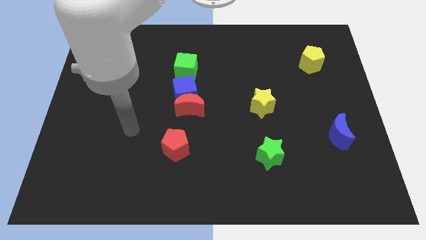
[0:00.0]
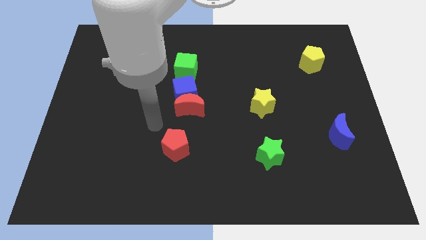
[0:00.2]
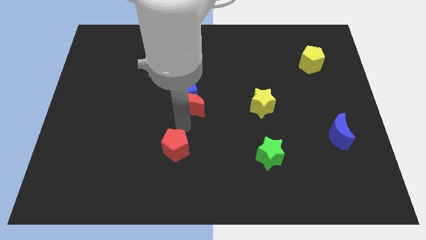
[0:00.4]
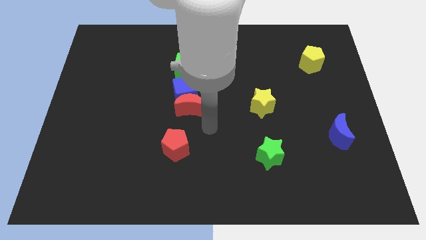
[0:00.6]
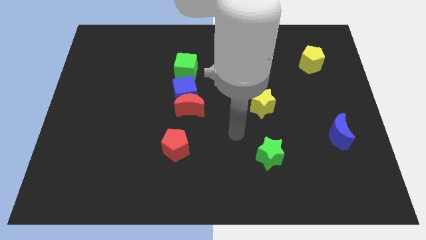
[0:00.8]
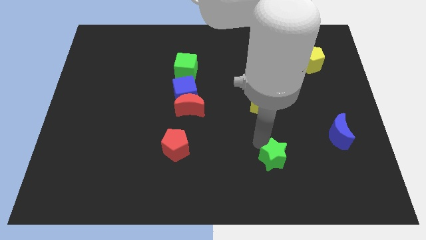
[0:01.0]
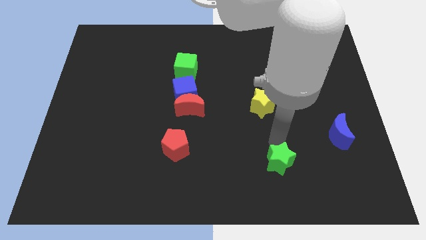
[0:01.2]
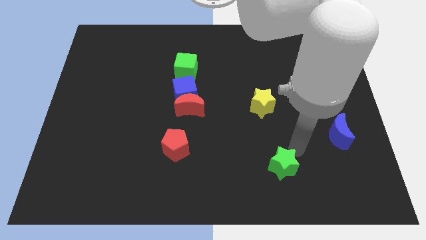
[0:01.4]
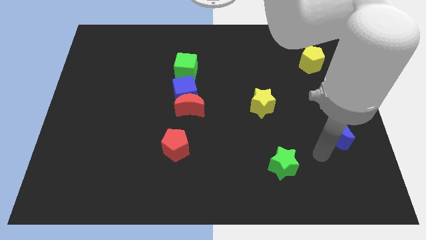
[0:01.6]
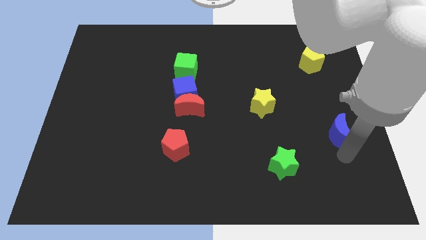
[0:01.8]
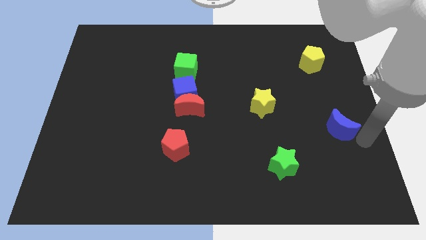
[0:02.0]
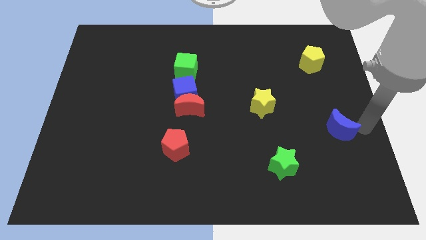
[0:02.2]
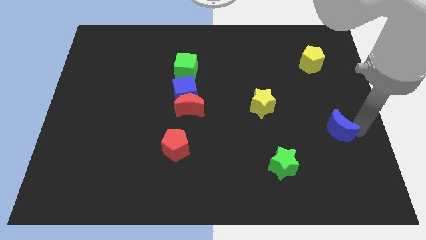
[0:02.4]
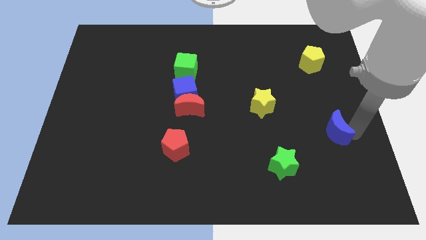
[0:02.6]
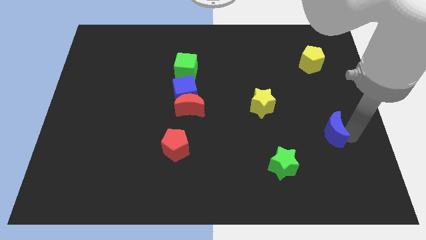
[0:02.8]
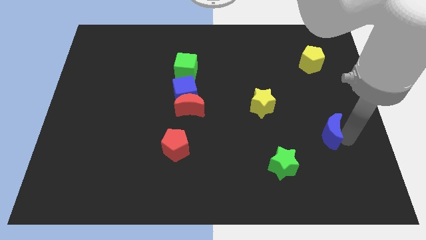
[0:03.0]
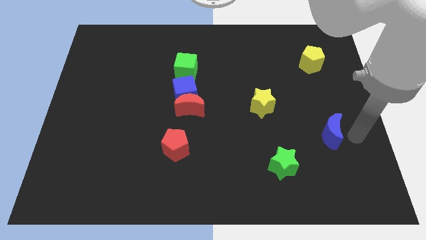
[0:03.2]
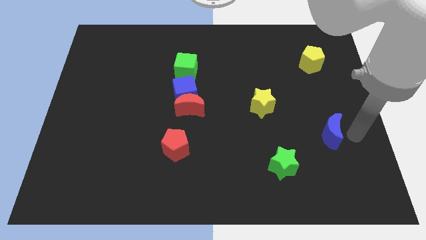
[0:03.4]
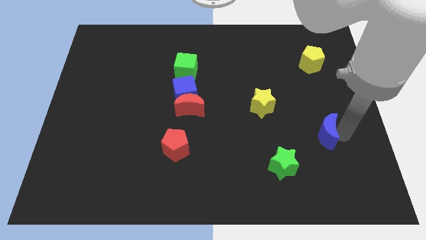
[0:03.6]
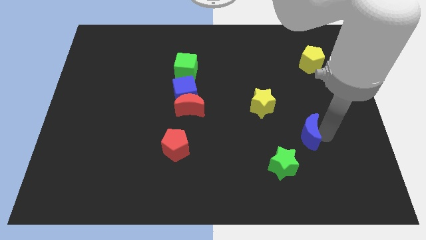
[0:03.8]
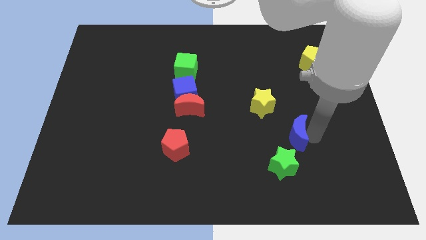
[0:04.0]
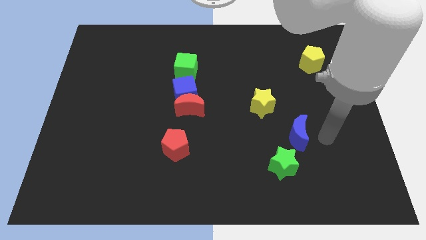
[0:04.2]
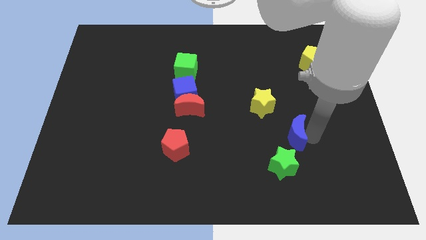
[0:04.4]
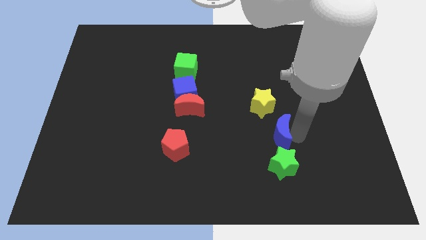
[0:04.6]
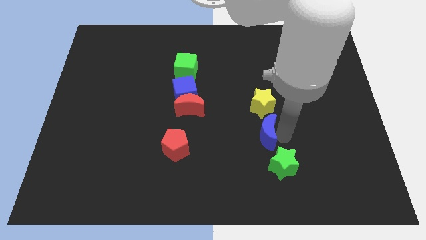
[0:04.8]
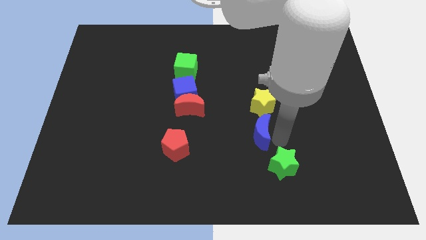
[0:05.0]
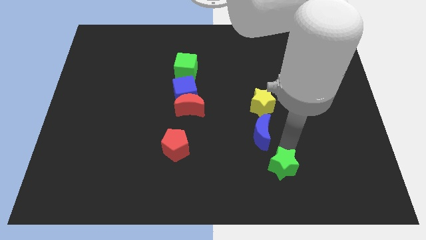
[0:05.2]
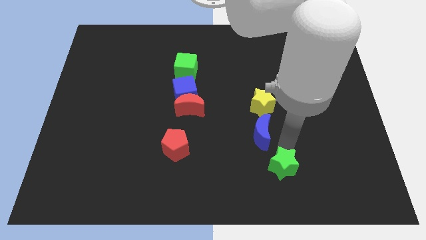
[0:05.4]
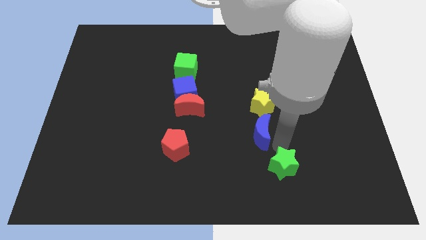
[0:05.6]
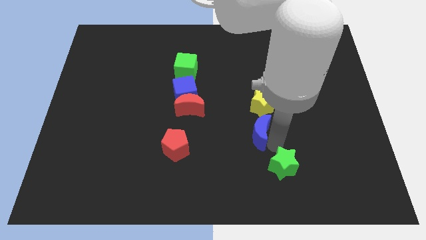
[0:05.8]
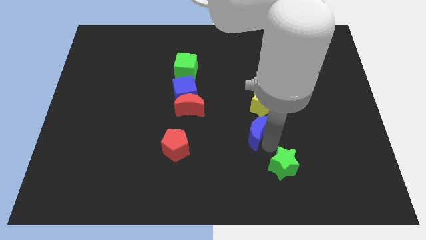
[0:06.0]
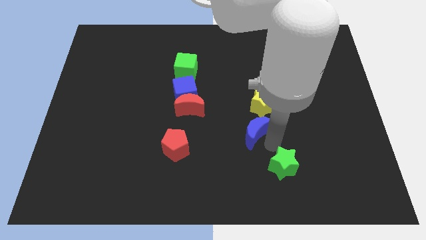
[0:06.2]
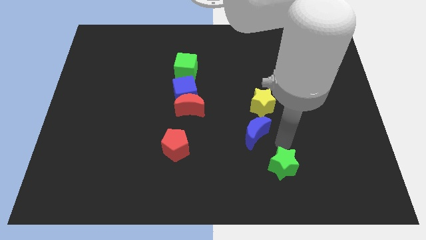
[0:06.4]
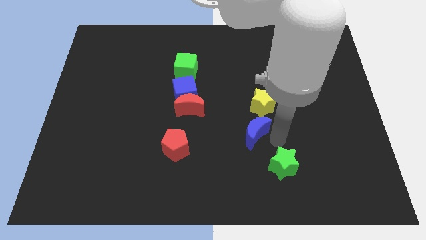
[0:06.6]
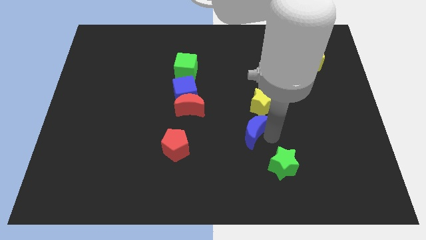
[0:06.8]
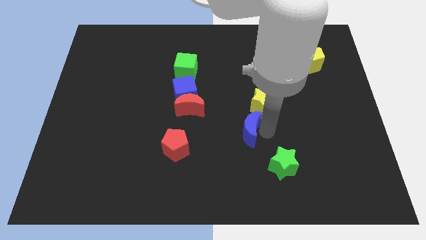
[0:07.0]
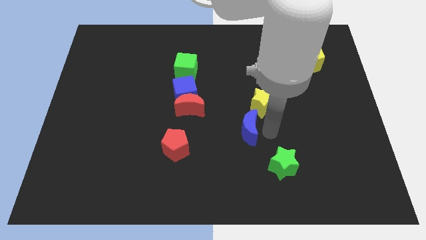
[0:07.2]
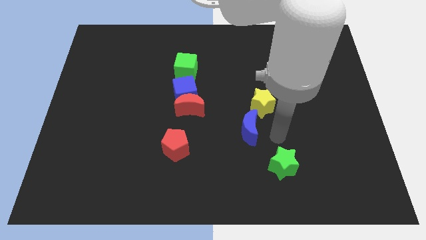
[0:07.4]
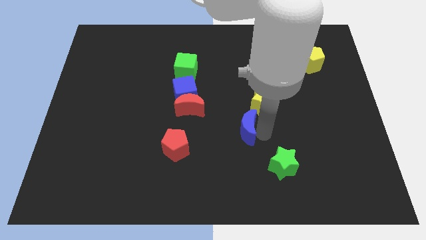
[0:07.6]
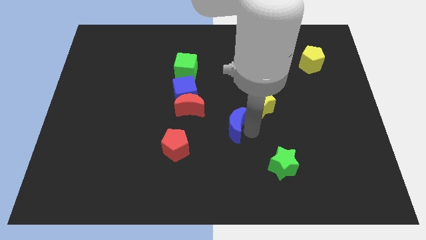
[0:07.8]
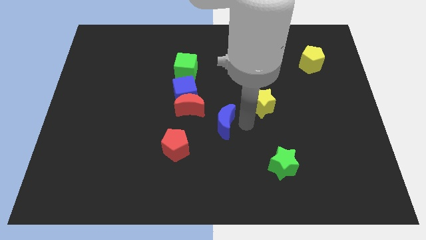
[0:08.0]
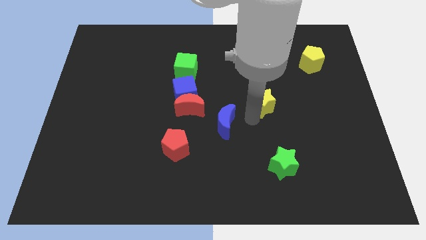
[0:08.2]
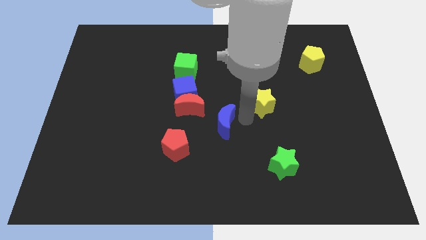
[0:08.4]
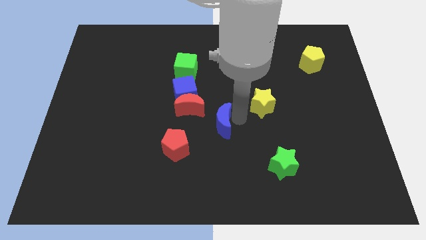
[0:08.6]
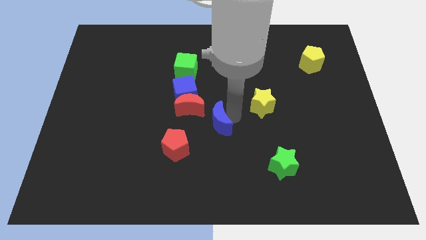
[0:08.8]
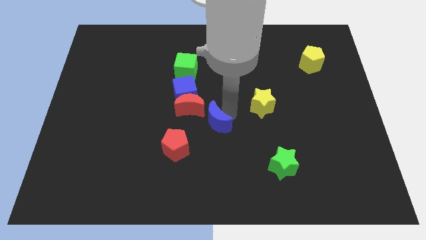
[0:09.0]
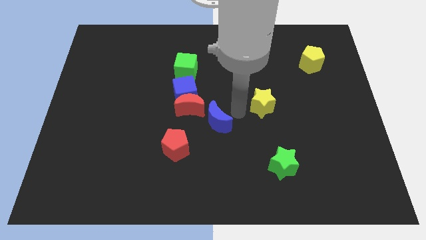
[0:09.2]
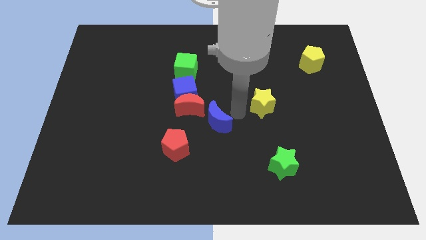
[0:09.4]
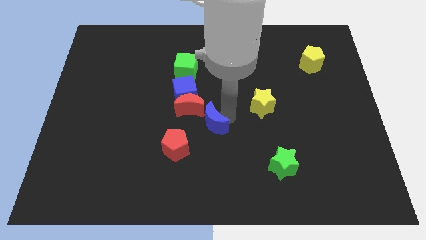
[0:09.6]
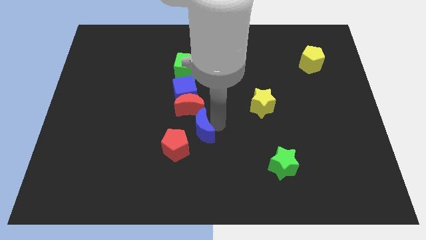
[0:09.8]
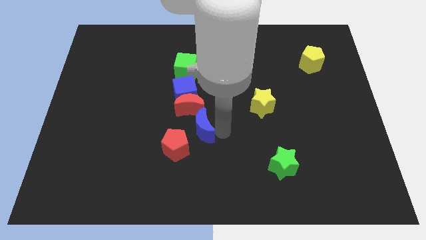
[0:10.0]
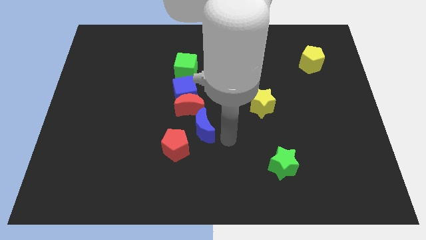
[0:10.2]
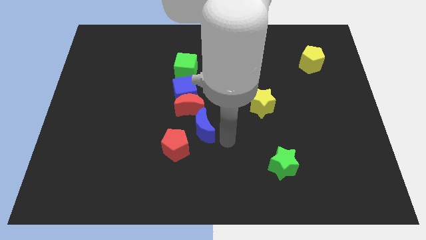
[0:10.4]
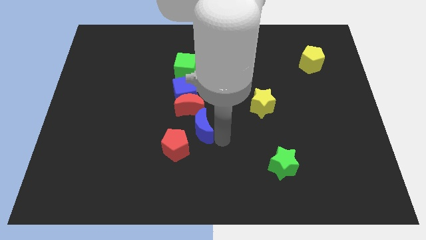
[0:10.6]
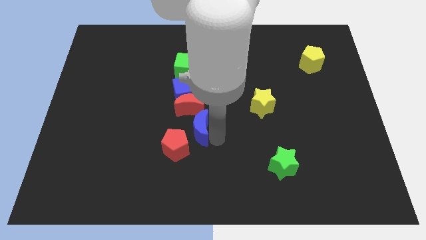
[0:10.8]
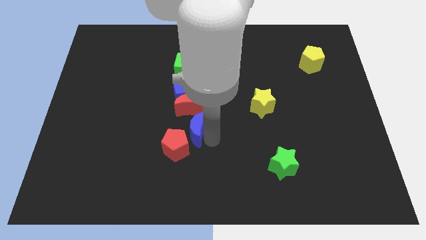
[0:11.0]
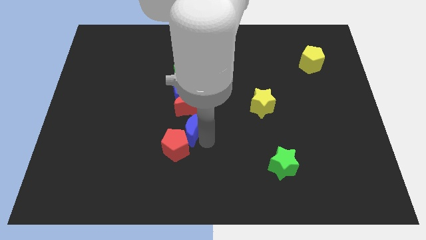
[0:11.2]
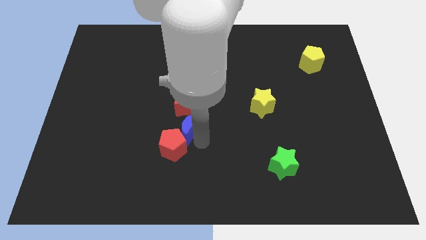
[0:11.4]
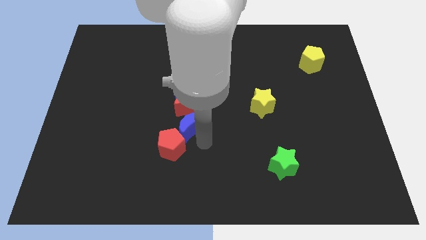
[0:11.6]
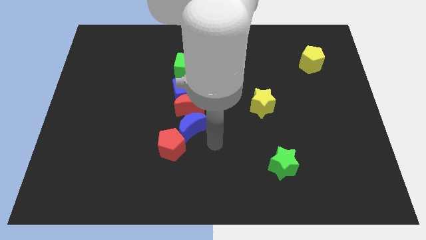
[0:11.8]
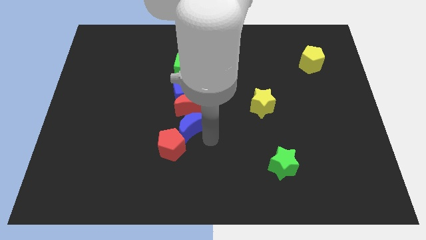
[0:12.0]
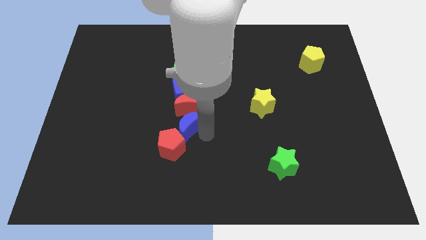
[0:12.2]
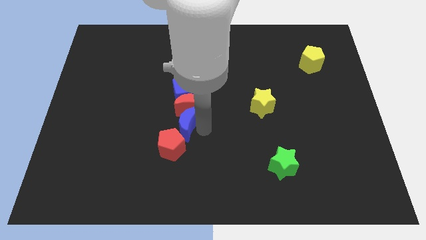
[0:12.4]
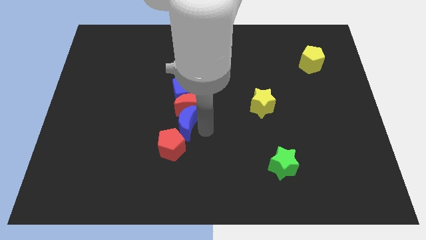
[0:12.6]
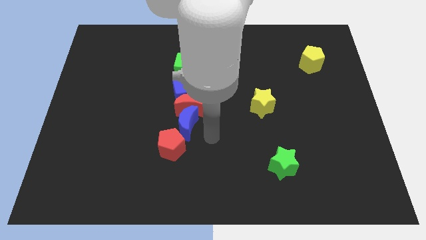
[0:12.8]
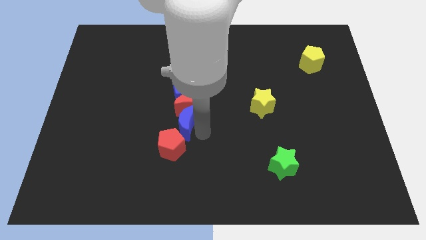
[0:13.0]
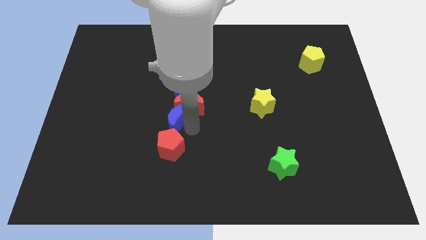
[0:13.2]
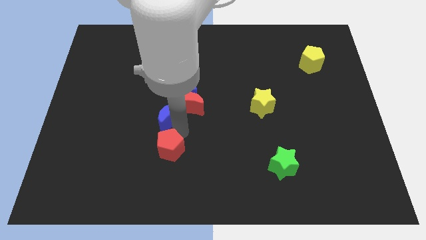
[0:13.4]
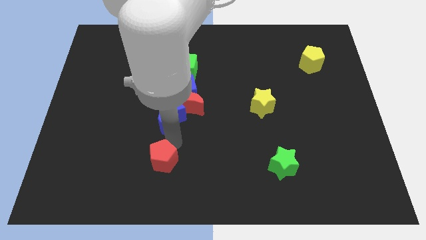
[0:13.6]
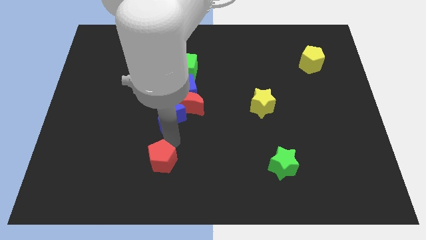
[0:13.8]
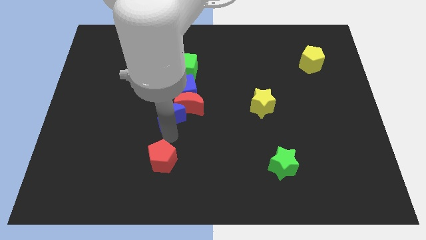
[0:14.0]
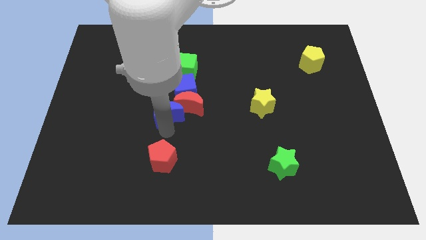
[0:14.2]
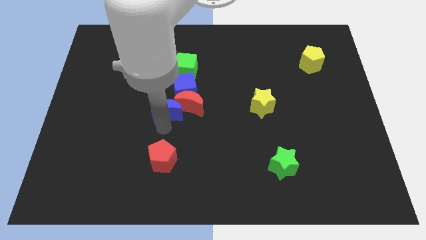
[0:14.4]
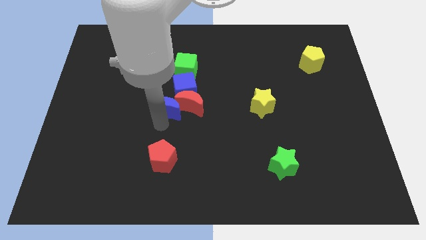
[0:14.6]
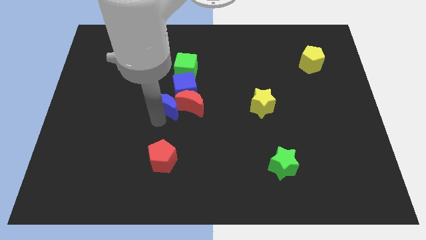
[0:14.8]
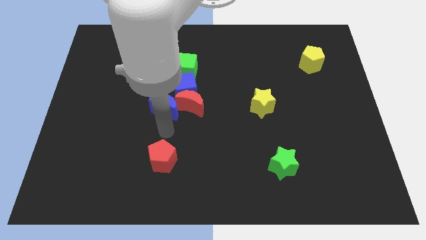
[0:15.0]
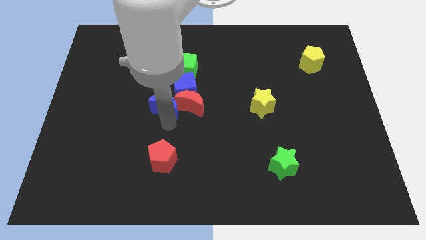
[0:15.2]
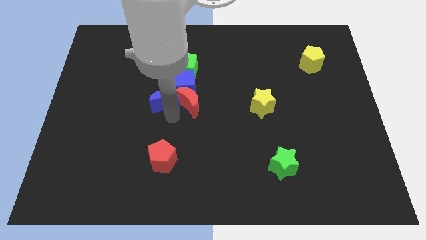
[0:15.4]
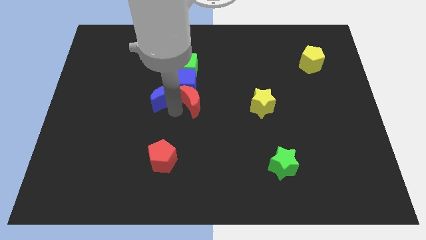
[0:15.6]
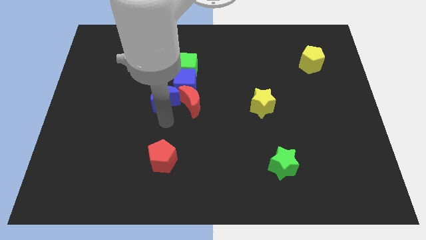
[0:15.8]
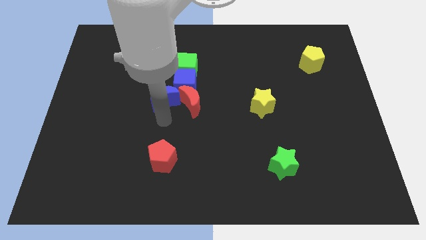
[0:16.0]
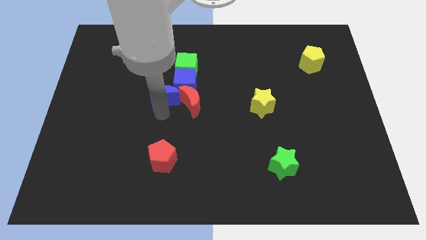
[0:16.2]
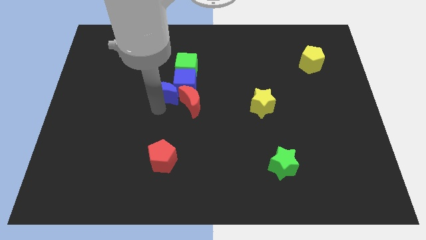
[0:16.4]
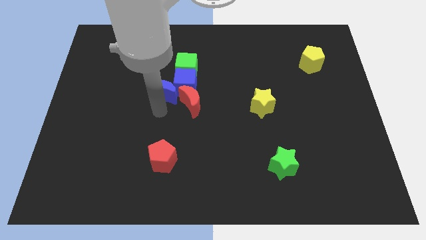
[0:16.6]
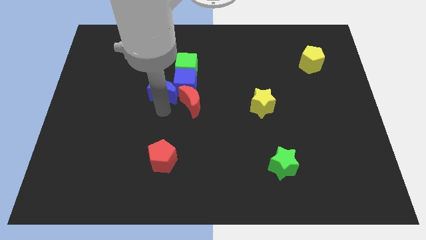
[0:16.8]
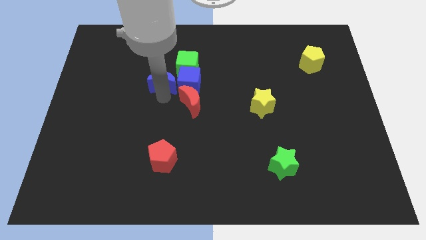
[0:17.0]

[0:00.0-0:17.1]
push the blue moon to the top left of the blue cube
